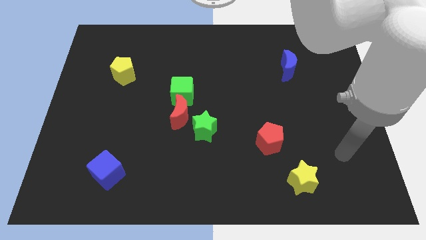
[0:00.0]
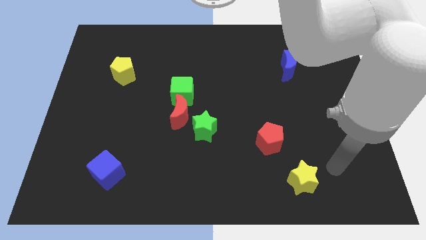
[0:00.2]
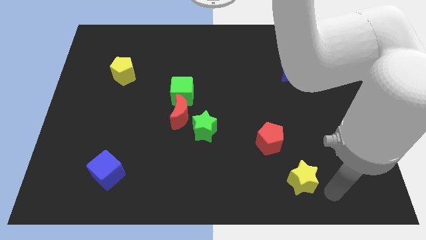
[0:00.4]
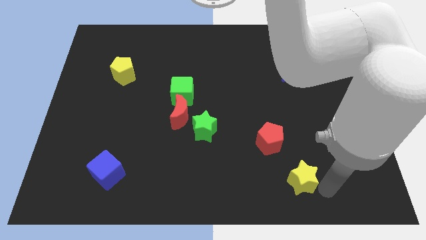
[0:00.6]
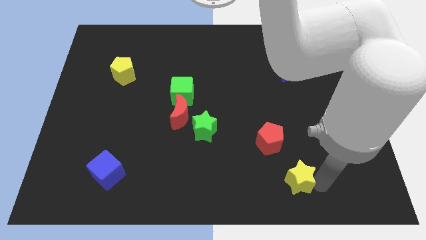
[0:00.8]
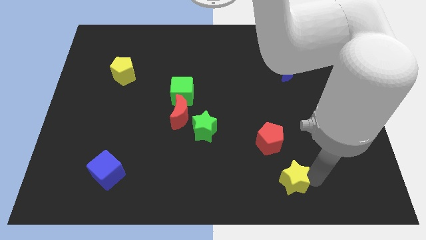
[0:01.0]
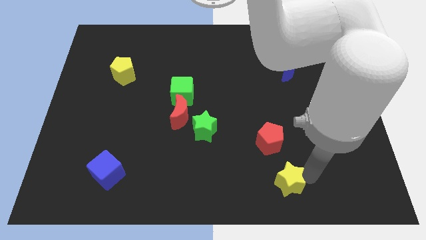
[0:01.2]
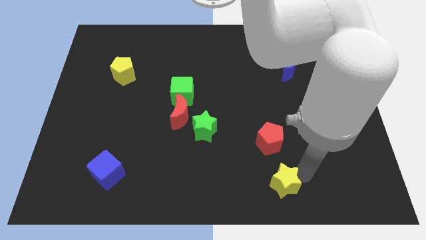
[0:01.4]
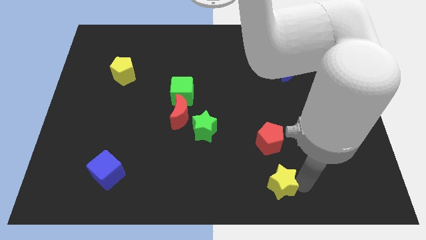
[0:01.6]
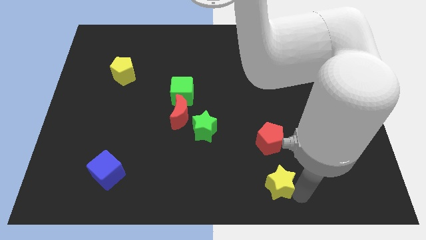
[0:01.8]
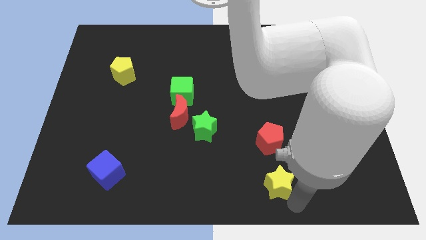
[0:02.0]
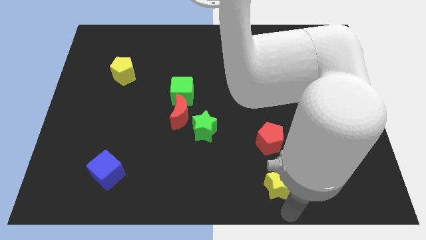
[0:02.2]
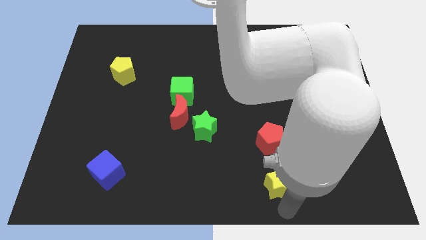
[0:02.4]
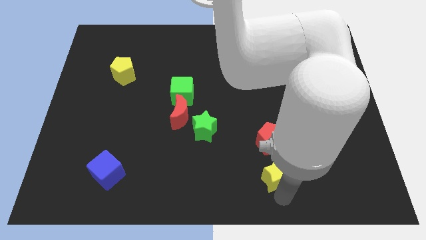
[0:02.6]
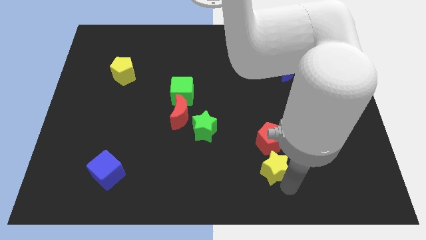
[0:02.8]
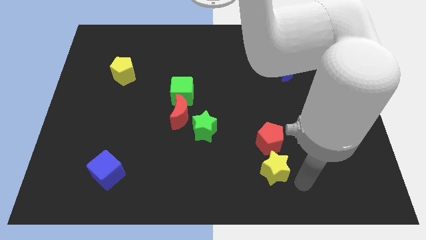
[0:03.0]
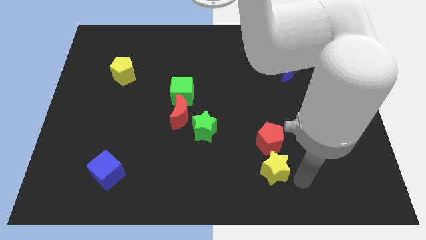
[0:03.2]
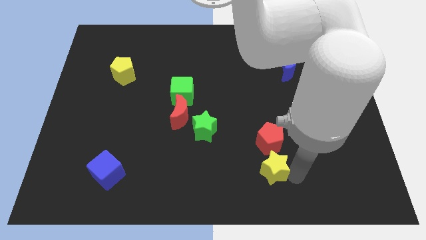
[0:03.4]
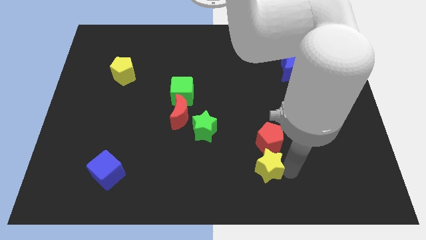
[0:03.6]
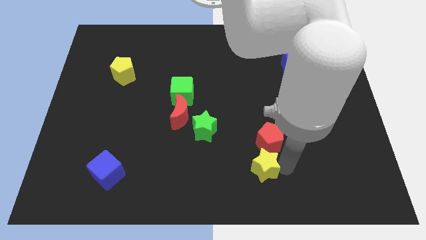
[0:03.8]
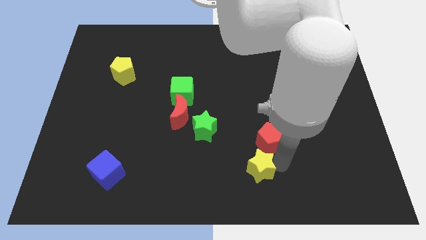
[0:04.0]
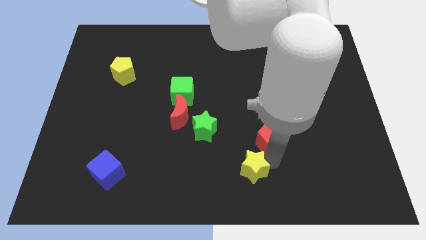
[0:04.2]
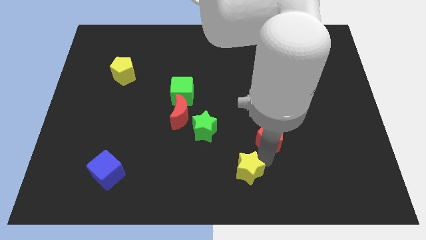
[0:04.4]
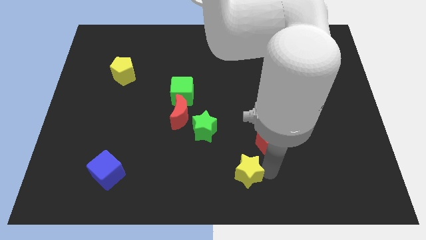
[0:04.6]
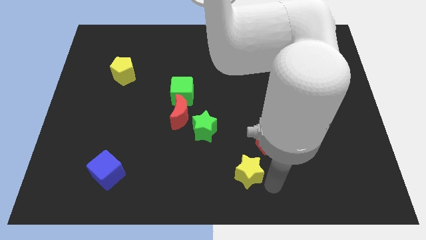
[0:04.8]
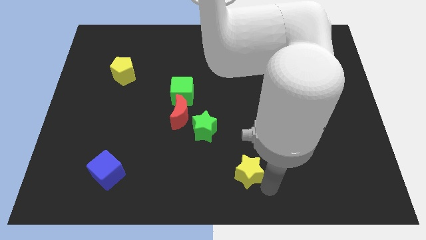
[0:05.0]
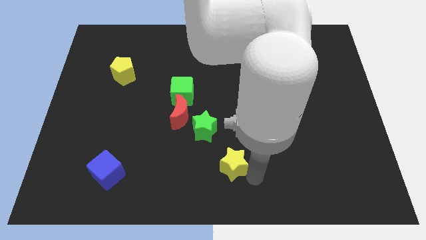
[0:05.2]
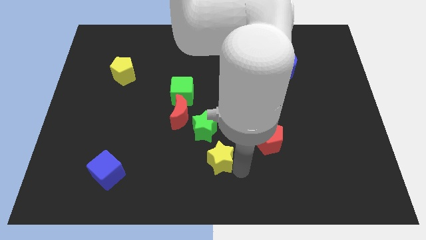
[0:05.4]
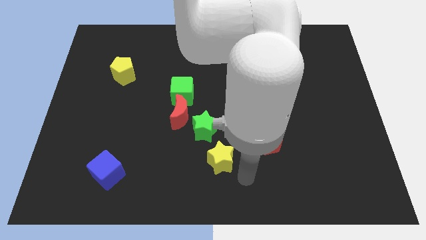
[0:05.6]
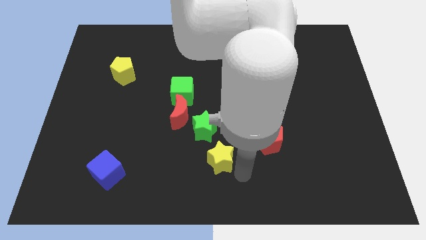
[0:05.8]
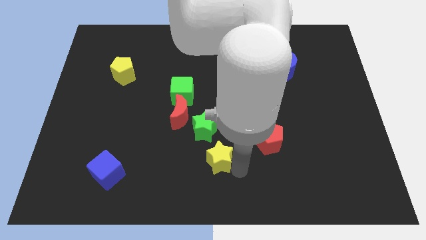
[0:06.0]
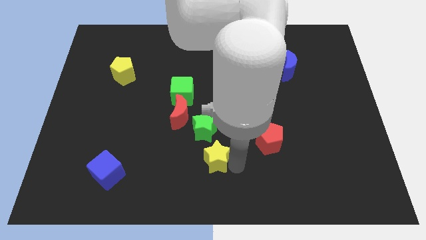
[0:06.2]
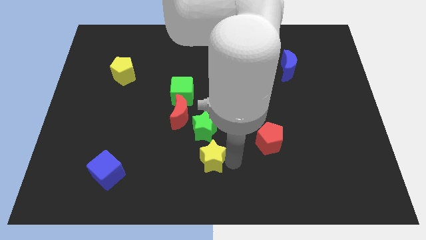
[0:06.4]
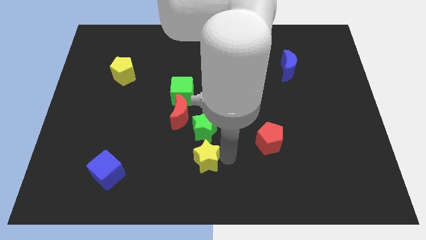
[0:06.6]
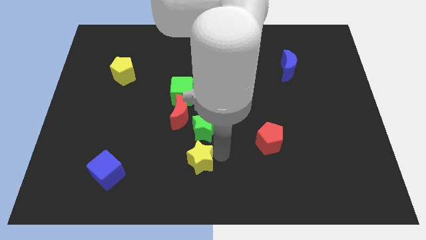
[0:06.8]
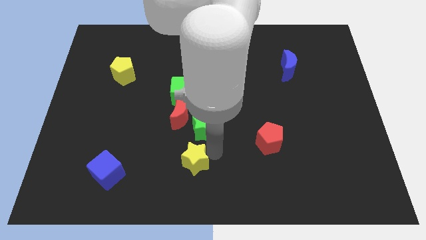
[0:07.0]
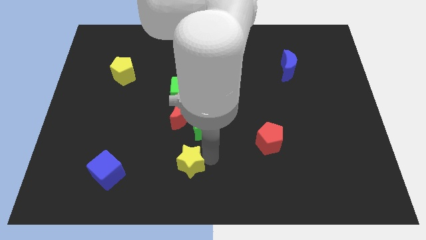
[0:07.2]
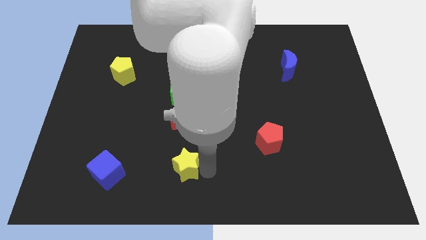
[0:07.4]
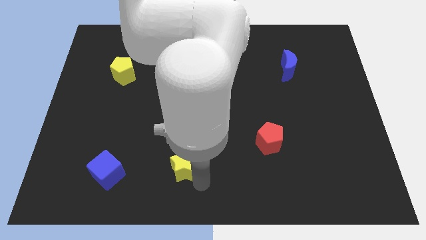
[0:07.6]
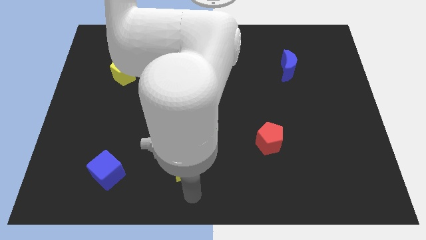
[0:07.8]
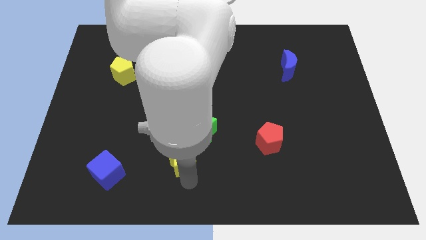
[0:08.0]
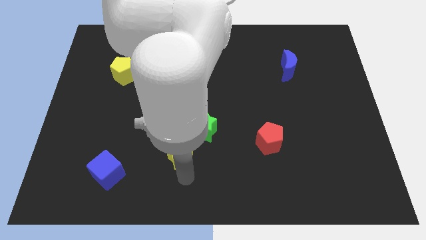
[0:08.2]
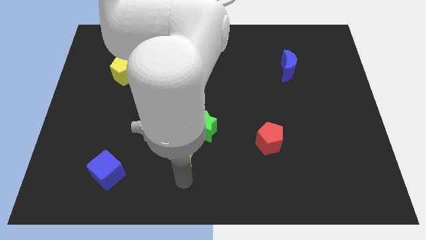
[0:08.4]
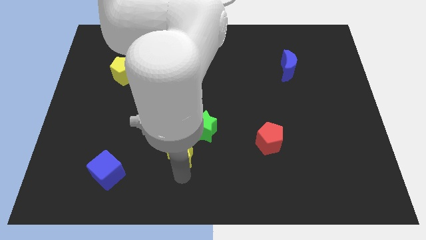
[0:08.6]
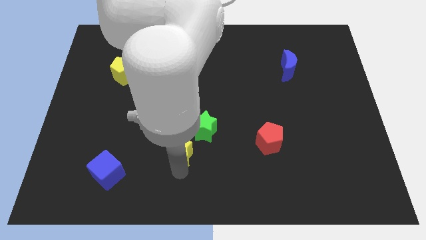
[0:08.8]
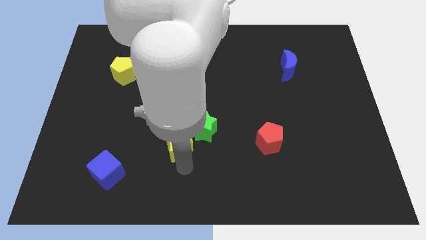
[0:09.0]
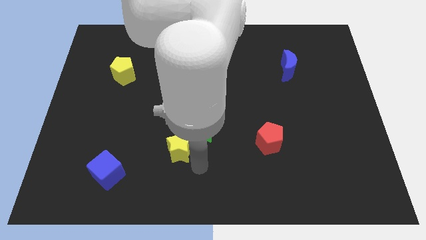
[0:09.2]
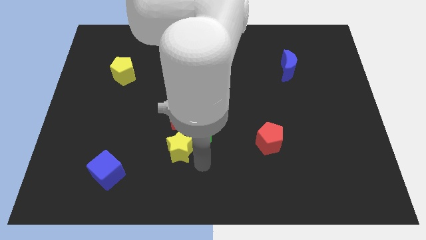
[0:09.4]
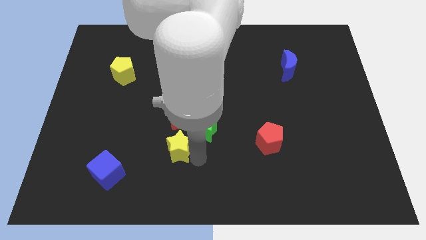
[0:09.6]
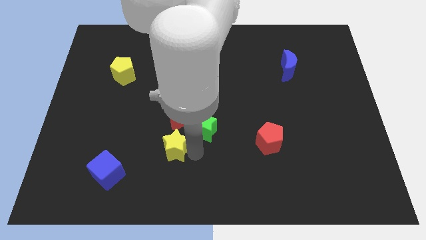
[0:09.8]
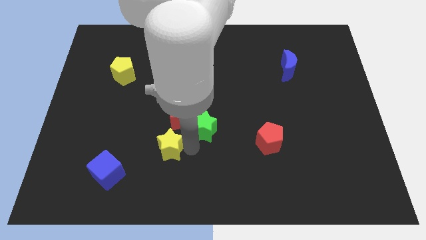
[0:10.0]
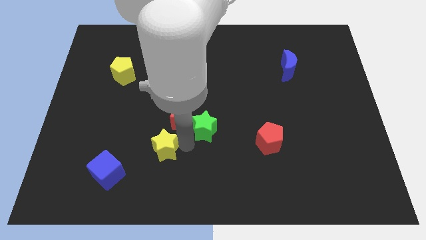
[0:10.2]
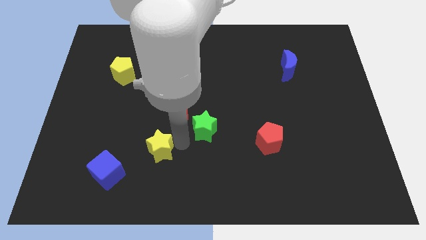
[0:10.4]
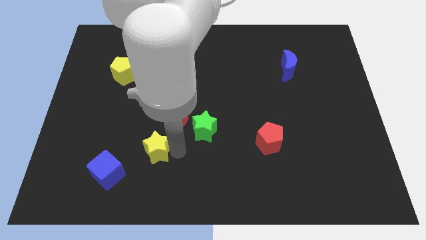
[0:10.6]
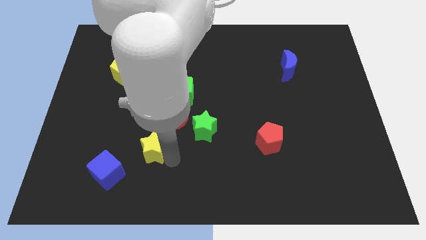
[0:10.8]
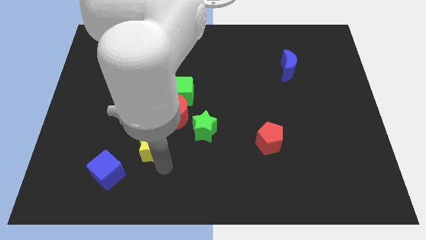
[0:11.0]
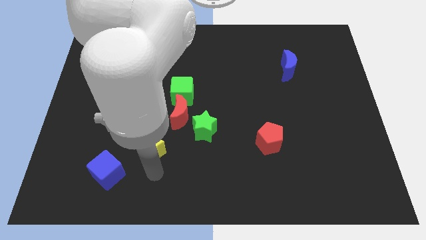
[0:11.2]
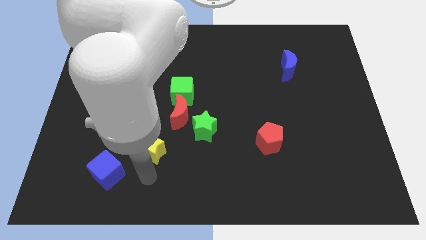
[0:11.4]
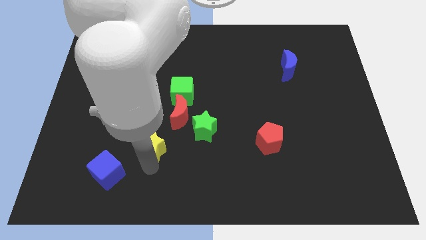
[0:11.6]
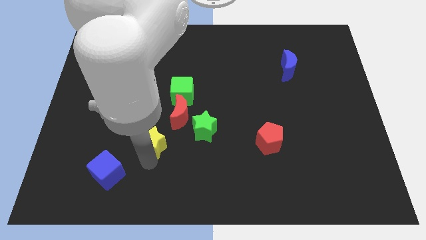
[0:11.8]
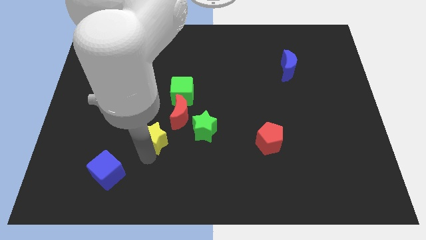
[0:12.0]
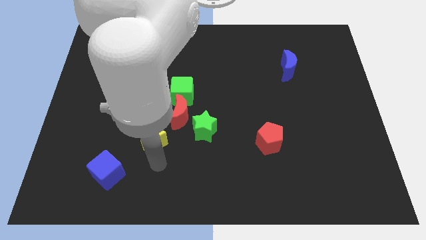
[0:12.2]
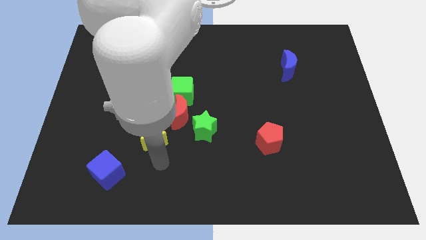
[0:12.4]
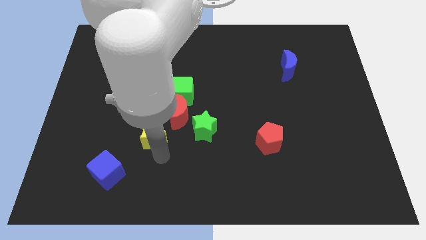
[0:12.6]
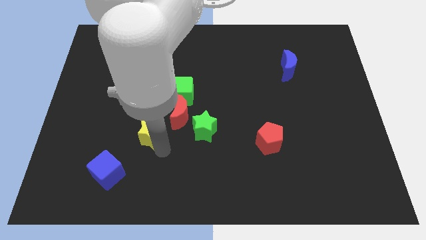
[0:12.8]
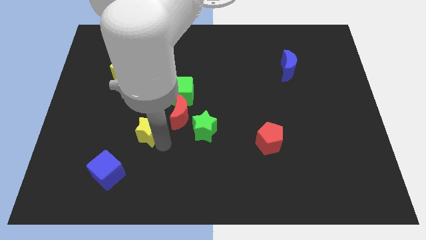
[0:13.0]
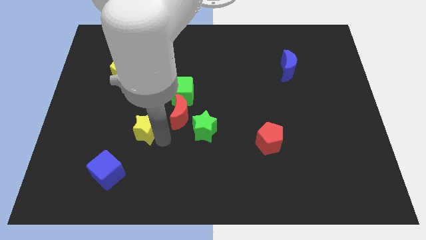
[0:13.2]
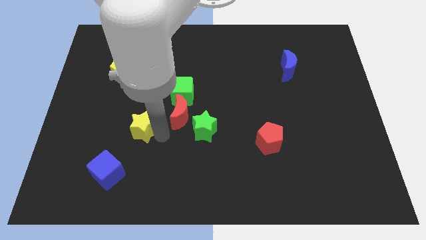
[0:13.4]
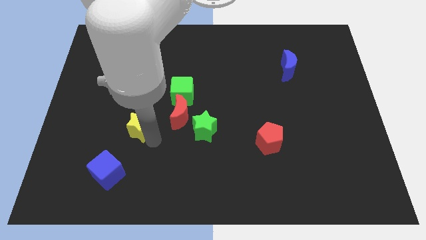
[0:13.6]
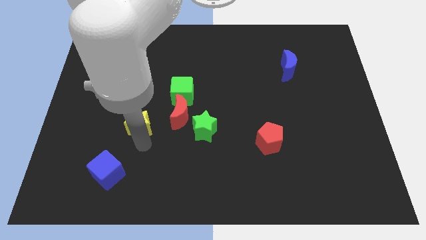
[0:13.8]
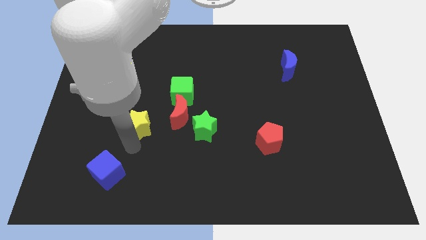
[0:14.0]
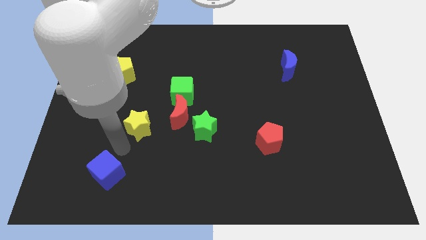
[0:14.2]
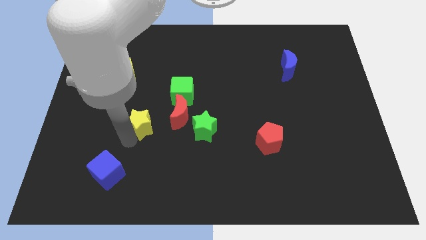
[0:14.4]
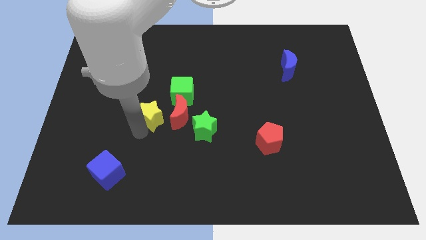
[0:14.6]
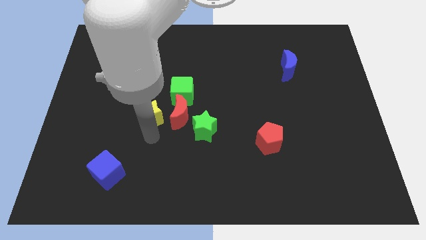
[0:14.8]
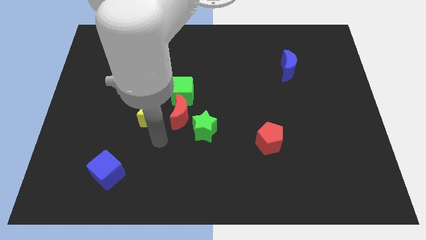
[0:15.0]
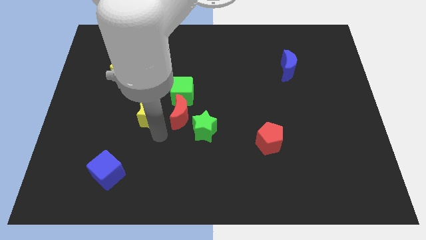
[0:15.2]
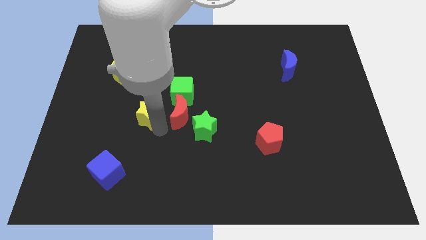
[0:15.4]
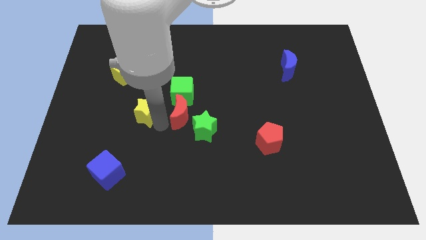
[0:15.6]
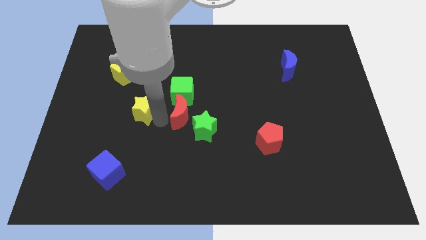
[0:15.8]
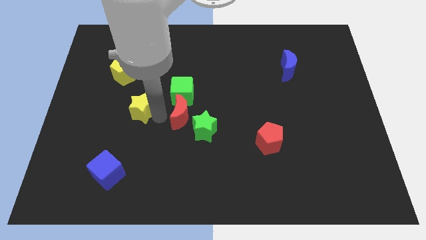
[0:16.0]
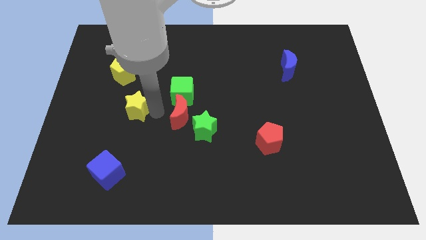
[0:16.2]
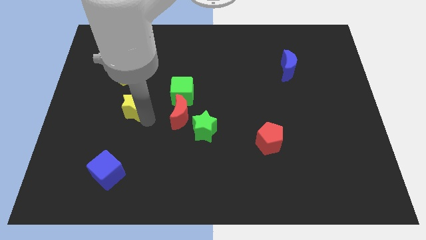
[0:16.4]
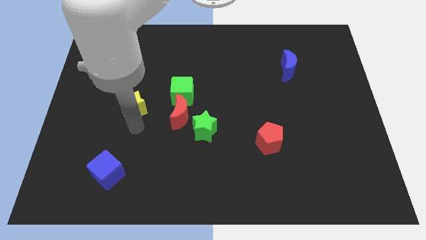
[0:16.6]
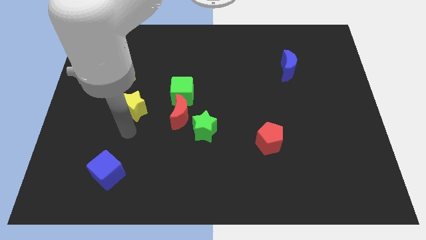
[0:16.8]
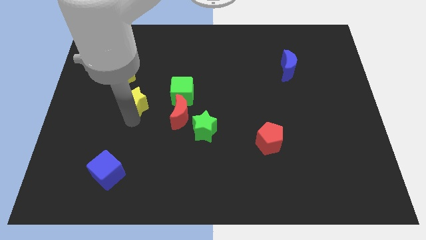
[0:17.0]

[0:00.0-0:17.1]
push the yellow star to the bottom right of the yellow pentagon
